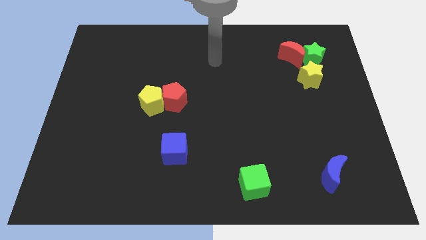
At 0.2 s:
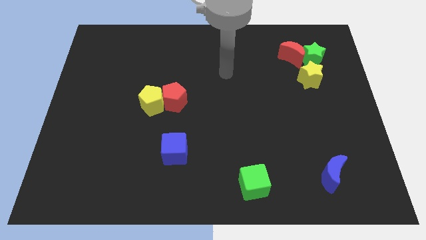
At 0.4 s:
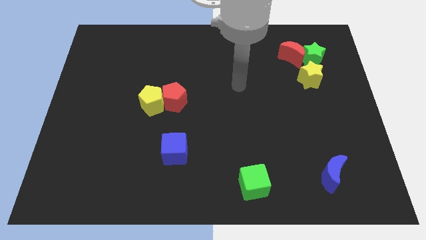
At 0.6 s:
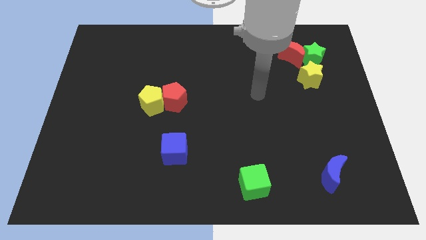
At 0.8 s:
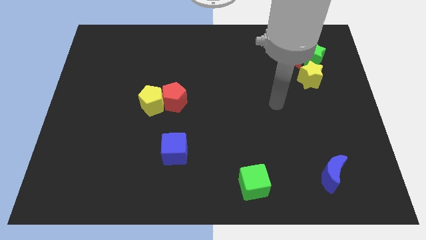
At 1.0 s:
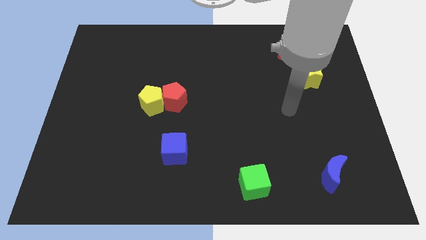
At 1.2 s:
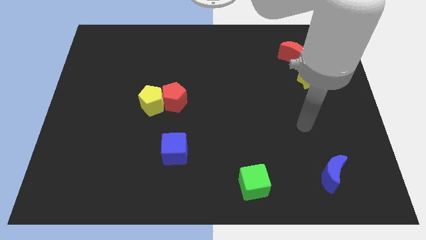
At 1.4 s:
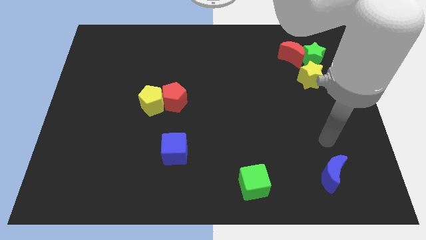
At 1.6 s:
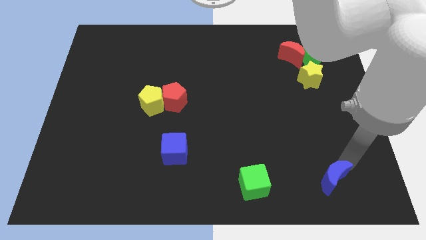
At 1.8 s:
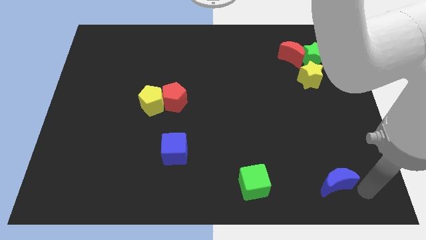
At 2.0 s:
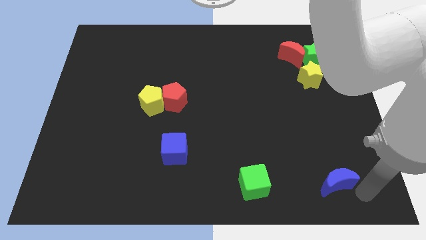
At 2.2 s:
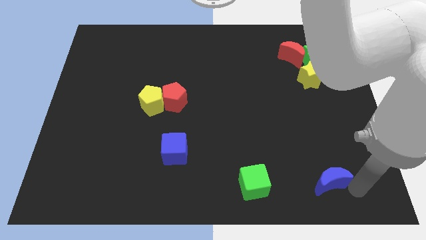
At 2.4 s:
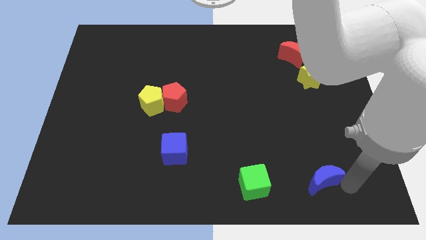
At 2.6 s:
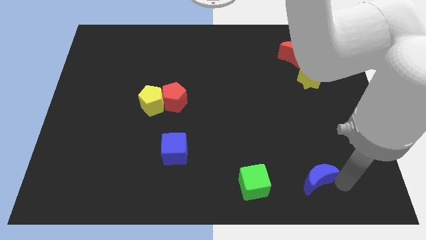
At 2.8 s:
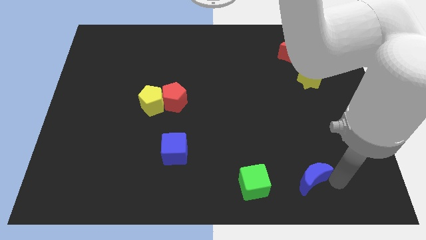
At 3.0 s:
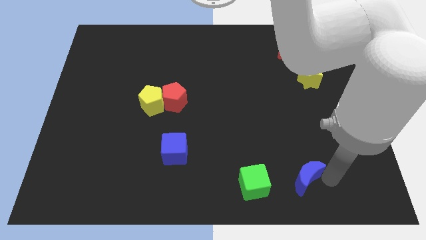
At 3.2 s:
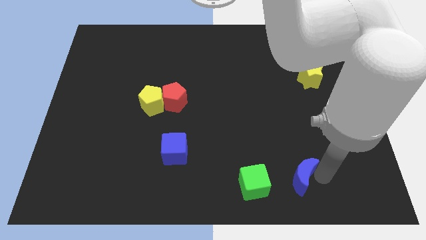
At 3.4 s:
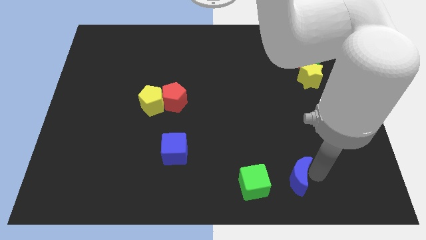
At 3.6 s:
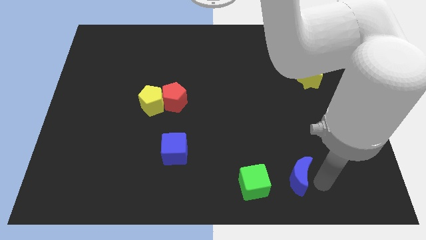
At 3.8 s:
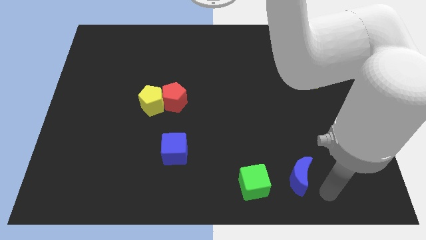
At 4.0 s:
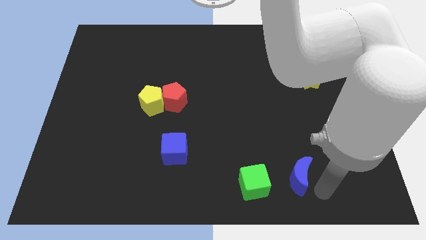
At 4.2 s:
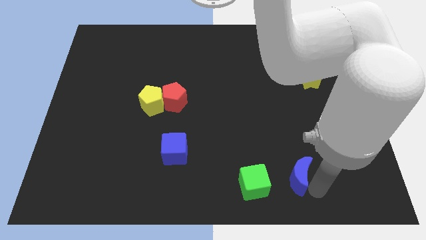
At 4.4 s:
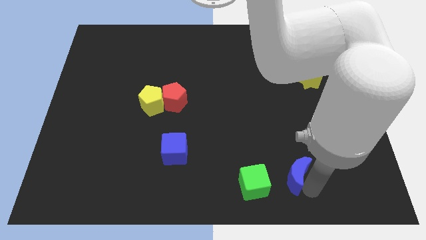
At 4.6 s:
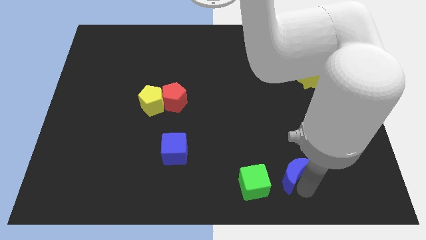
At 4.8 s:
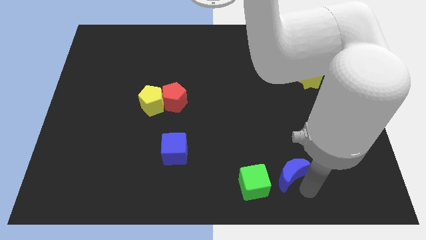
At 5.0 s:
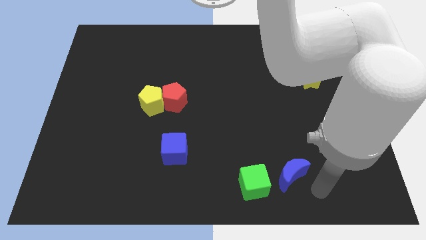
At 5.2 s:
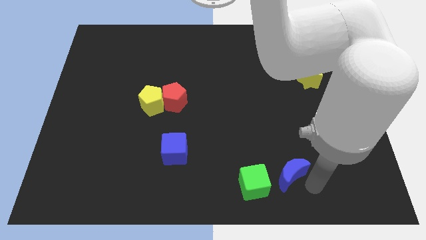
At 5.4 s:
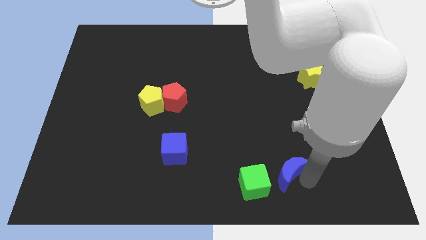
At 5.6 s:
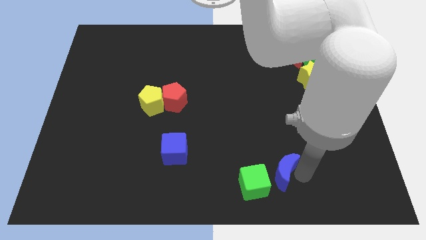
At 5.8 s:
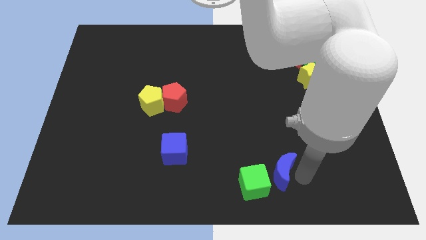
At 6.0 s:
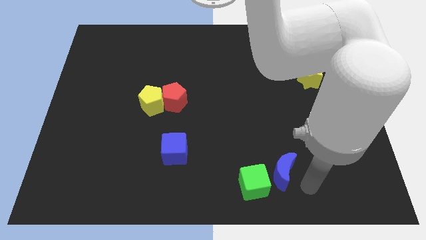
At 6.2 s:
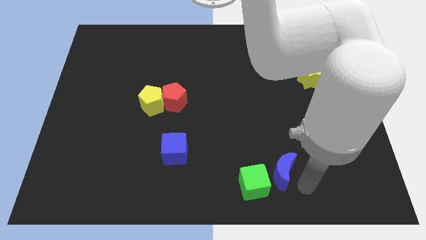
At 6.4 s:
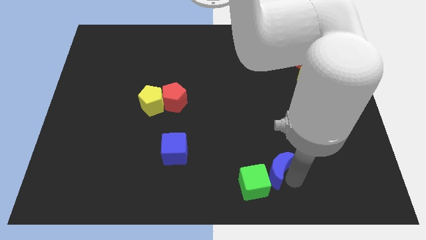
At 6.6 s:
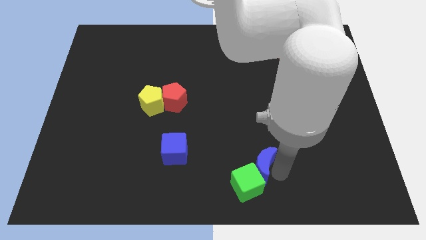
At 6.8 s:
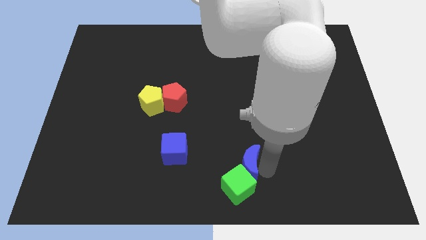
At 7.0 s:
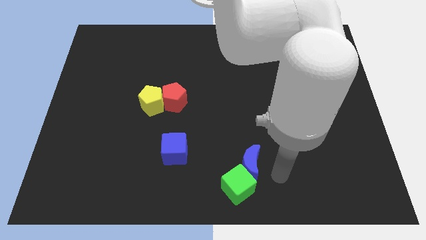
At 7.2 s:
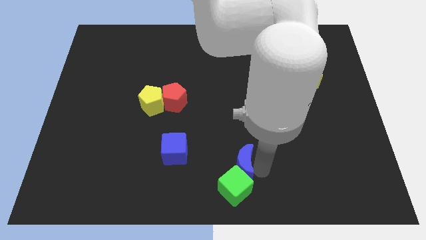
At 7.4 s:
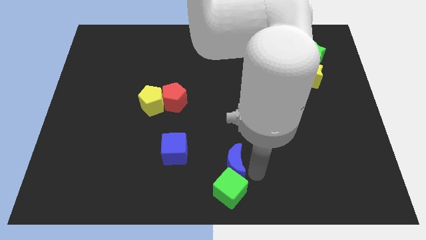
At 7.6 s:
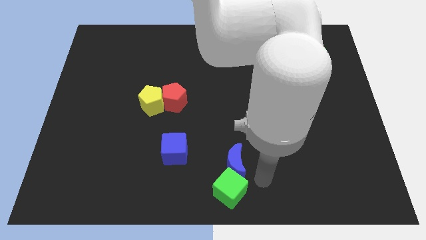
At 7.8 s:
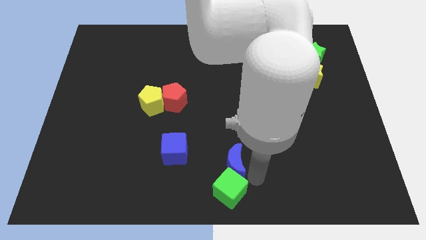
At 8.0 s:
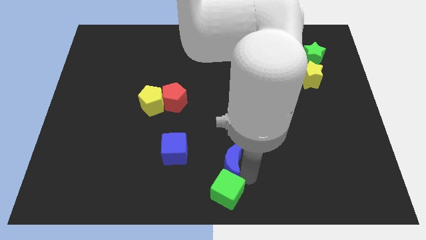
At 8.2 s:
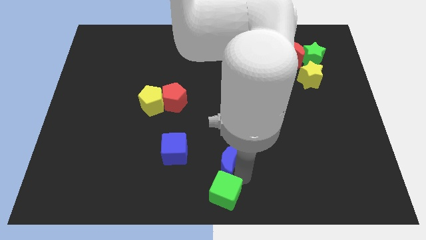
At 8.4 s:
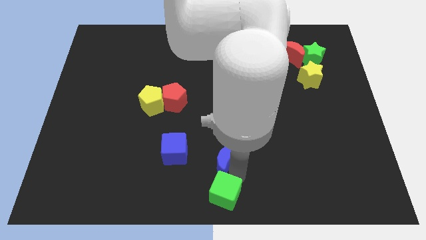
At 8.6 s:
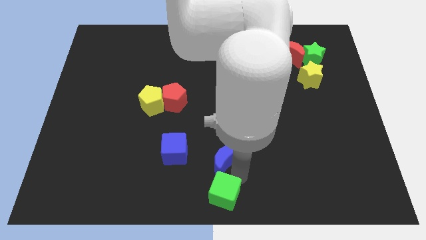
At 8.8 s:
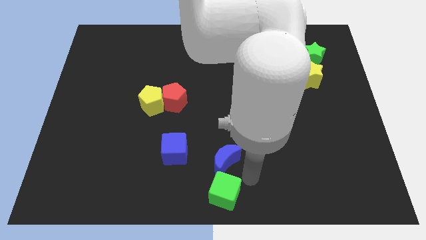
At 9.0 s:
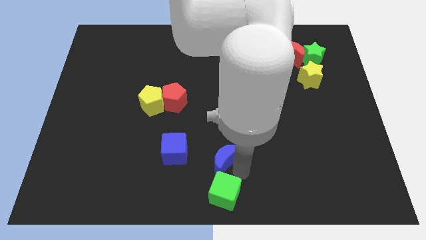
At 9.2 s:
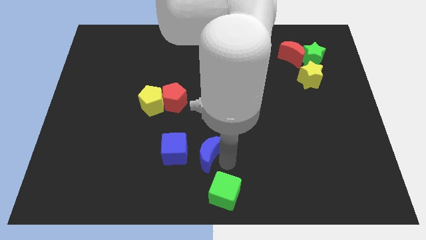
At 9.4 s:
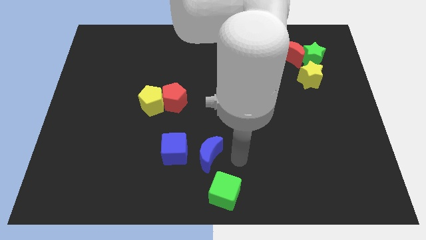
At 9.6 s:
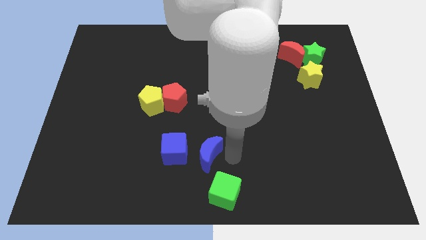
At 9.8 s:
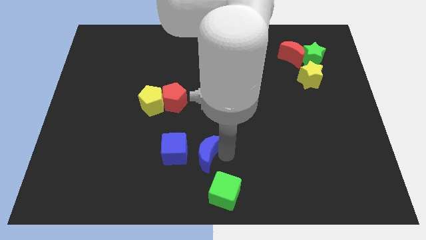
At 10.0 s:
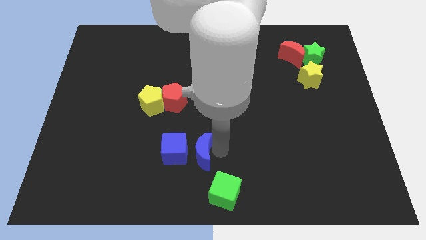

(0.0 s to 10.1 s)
push the blue moon towards the blue cube

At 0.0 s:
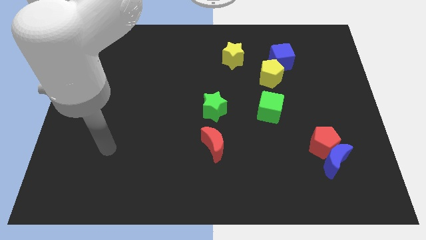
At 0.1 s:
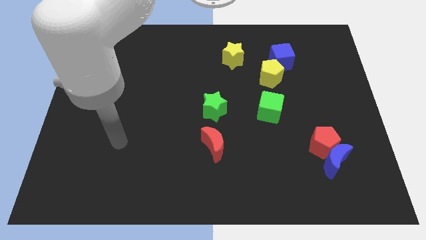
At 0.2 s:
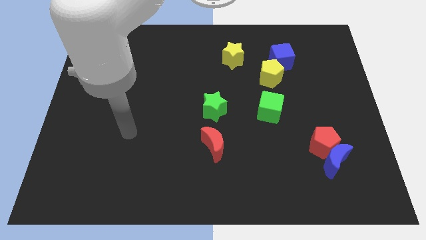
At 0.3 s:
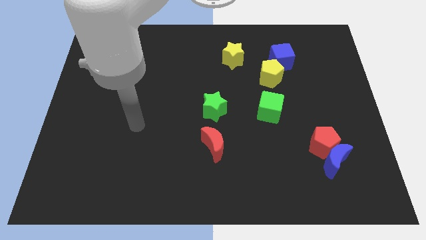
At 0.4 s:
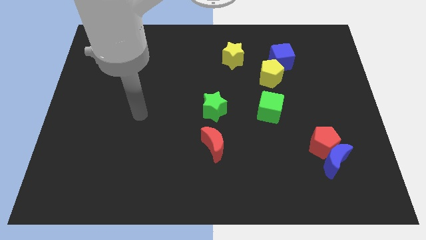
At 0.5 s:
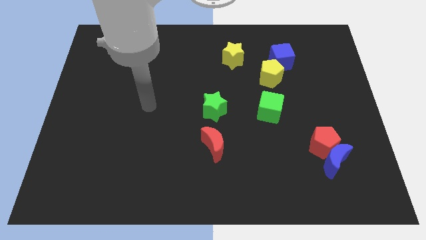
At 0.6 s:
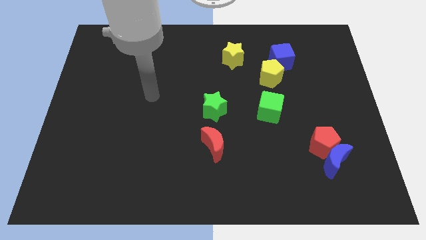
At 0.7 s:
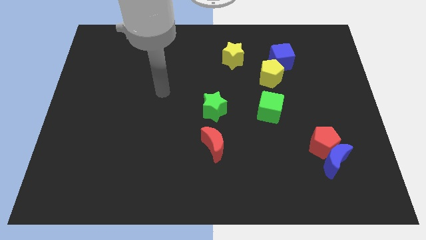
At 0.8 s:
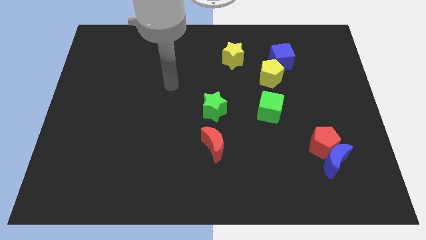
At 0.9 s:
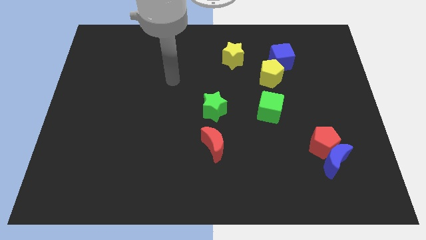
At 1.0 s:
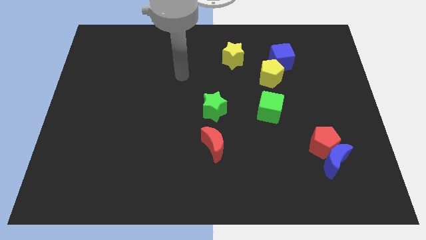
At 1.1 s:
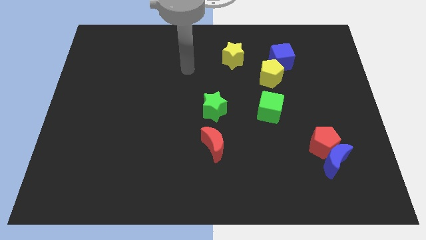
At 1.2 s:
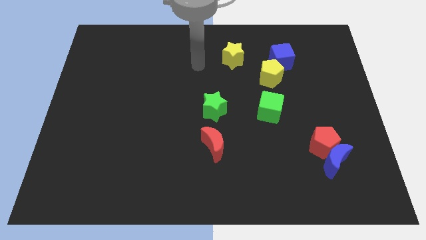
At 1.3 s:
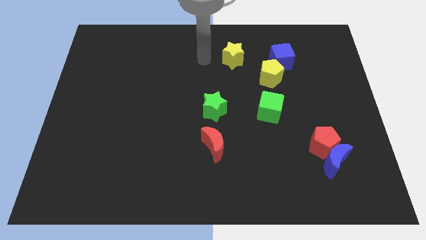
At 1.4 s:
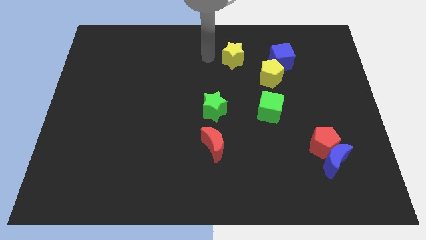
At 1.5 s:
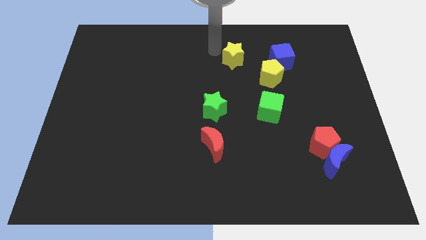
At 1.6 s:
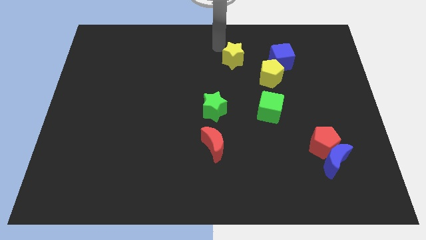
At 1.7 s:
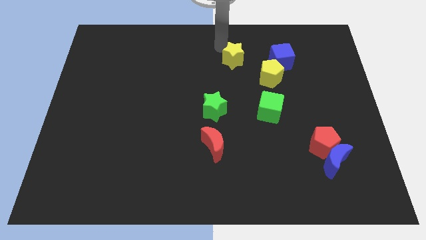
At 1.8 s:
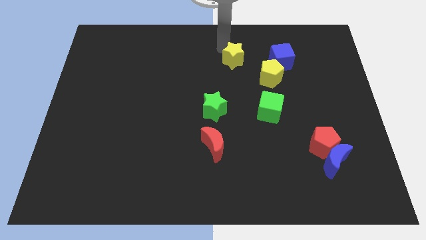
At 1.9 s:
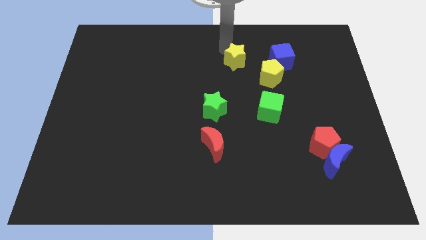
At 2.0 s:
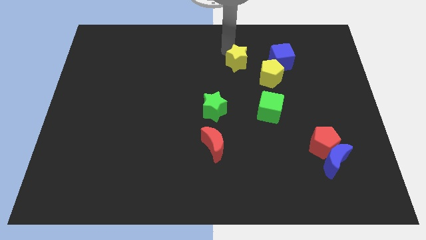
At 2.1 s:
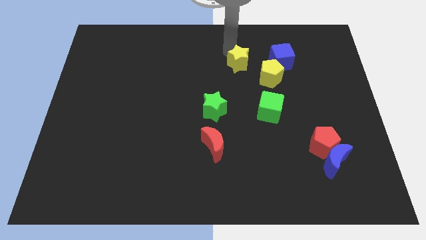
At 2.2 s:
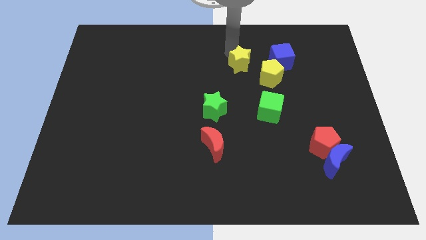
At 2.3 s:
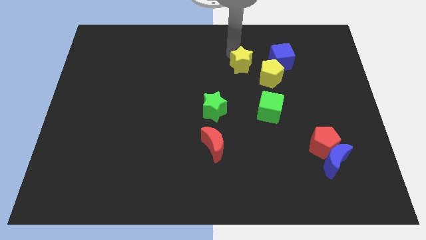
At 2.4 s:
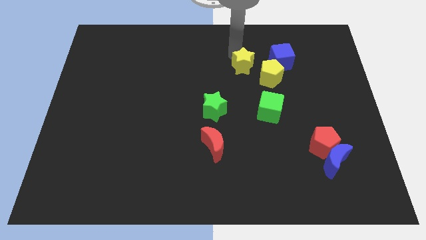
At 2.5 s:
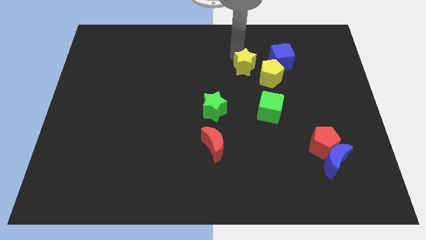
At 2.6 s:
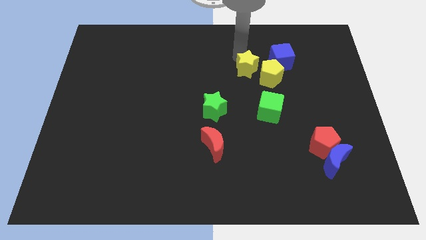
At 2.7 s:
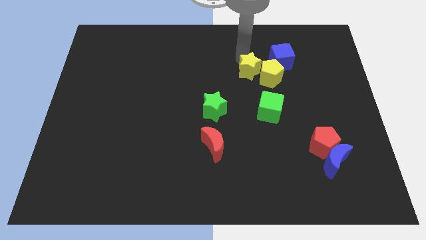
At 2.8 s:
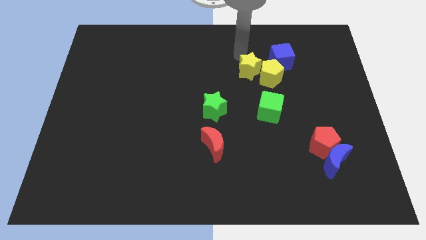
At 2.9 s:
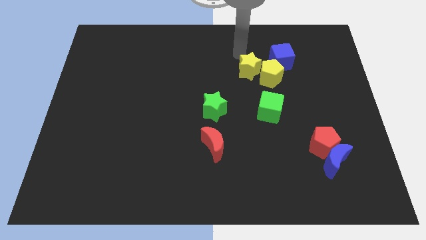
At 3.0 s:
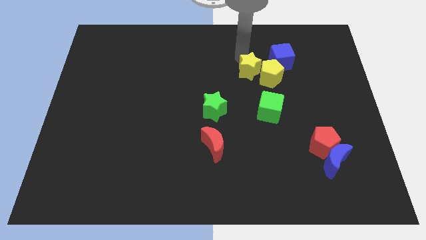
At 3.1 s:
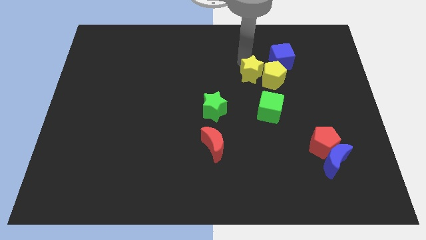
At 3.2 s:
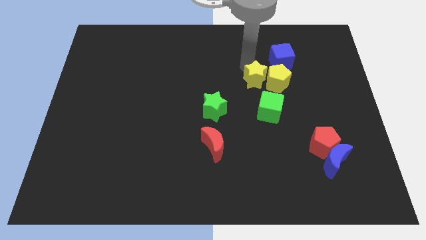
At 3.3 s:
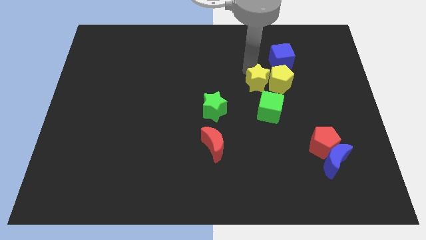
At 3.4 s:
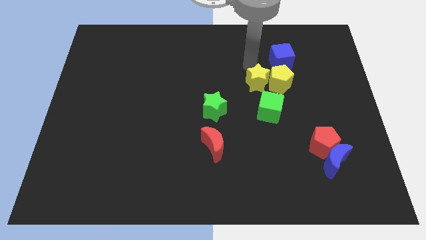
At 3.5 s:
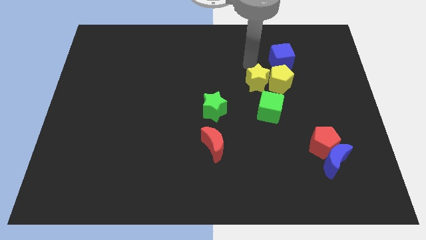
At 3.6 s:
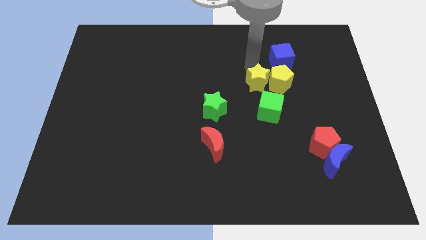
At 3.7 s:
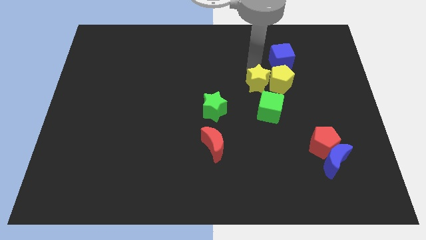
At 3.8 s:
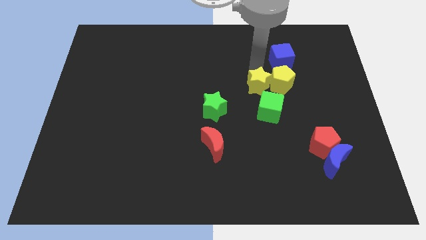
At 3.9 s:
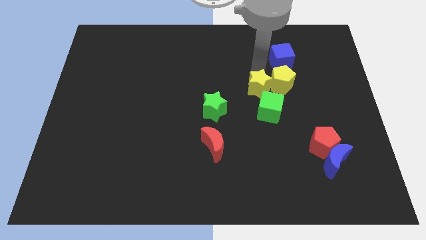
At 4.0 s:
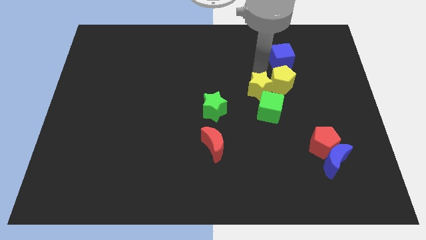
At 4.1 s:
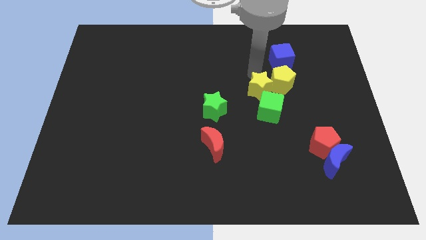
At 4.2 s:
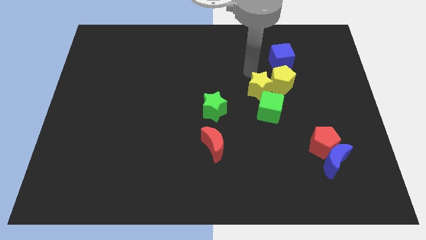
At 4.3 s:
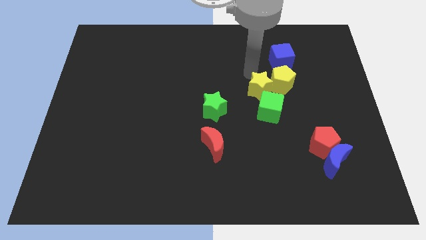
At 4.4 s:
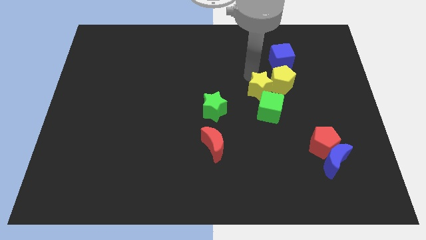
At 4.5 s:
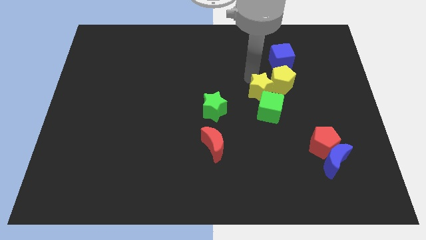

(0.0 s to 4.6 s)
push the yellow star close to the green cube
